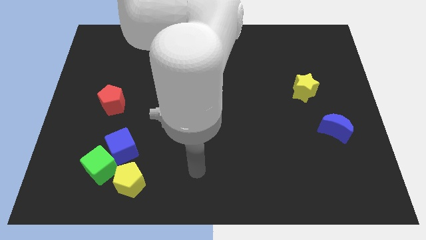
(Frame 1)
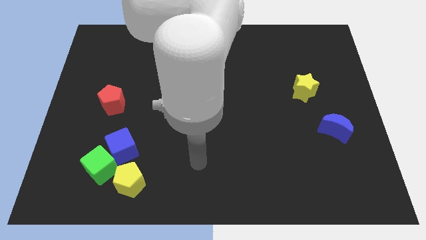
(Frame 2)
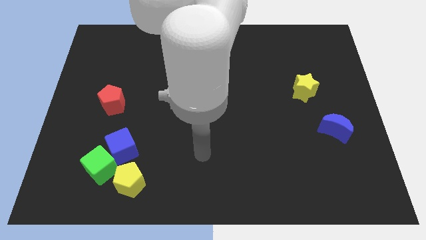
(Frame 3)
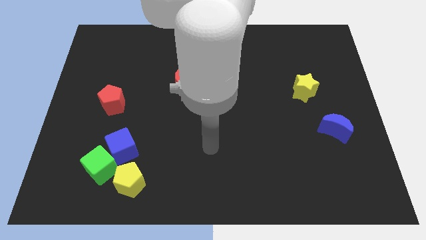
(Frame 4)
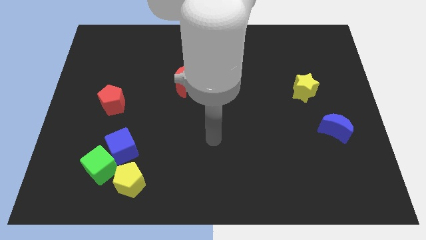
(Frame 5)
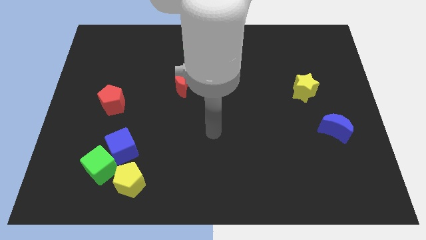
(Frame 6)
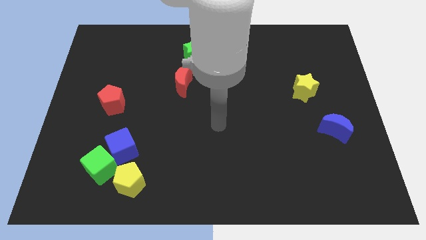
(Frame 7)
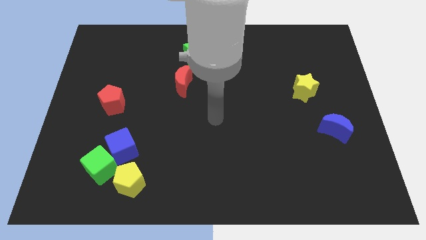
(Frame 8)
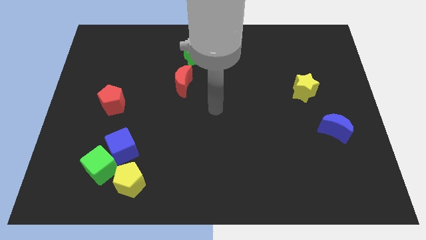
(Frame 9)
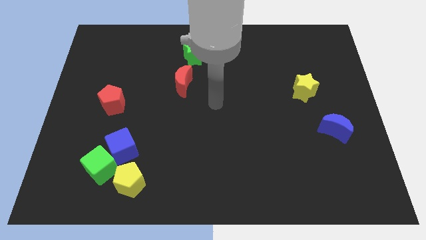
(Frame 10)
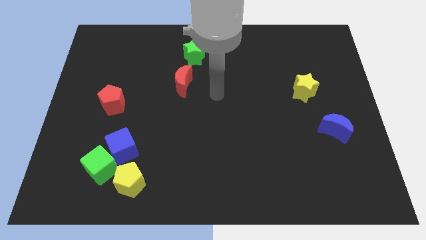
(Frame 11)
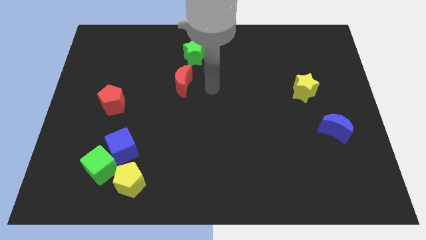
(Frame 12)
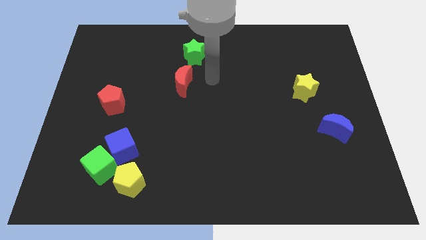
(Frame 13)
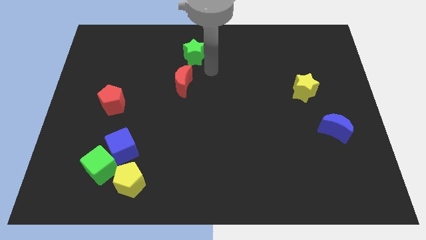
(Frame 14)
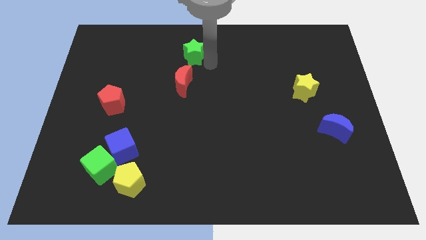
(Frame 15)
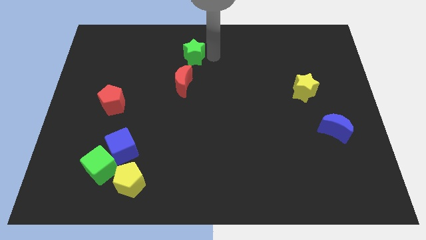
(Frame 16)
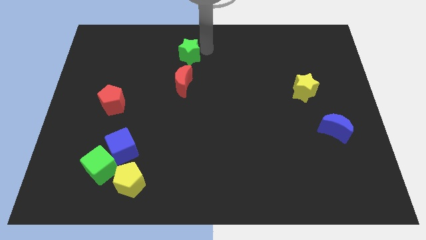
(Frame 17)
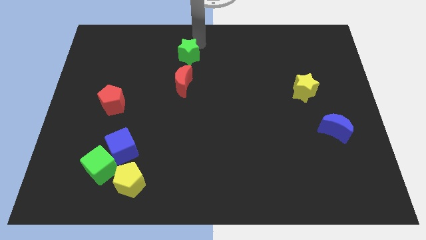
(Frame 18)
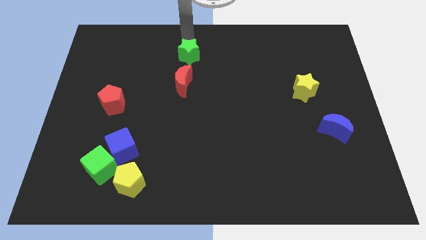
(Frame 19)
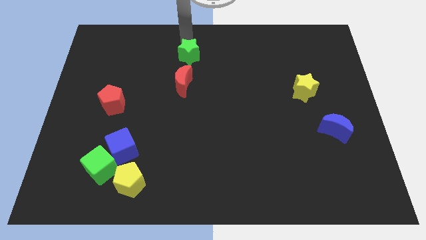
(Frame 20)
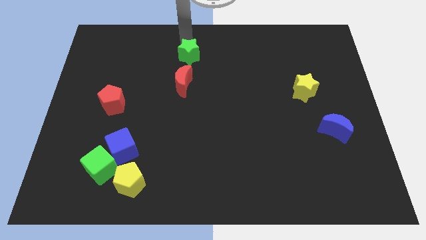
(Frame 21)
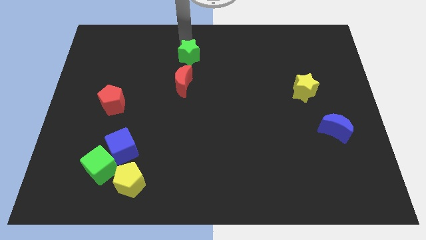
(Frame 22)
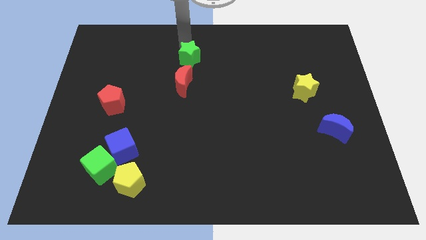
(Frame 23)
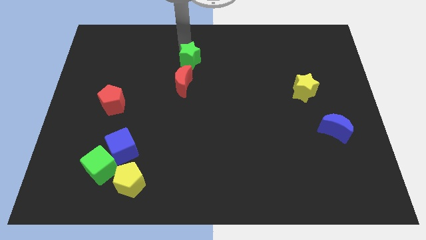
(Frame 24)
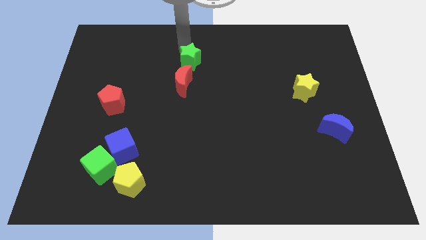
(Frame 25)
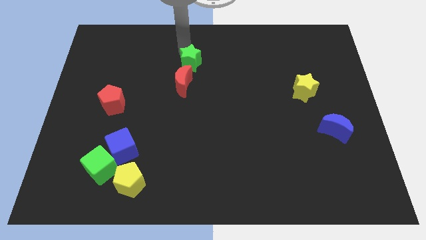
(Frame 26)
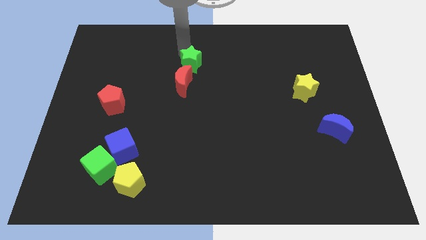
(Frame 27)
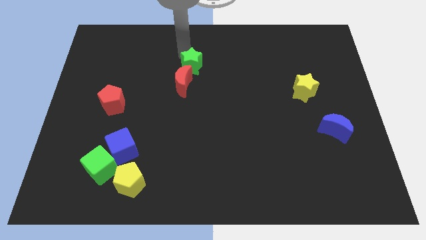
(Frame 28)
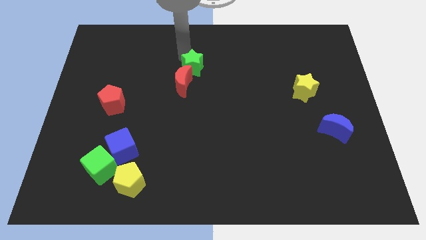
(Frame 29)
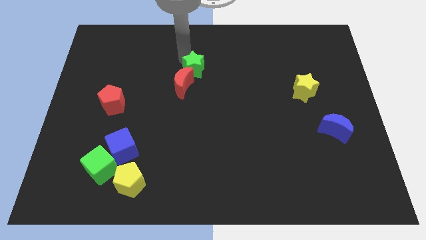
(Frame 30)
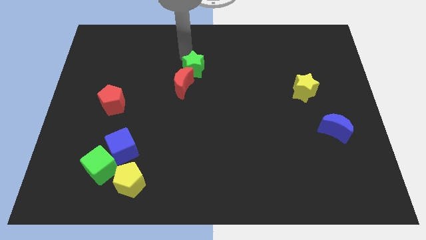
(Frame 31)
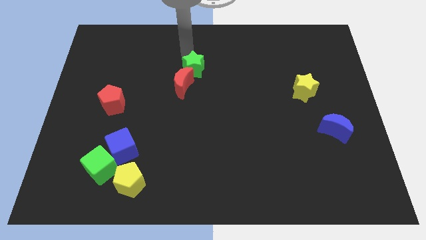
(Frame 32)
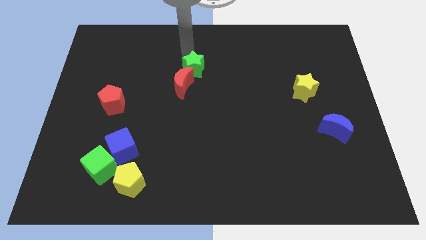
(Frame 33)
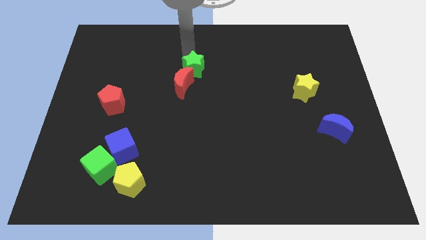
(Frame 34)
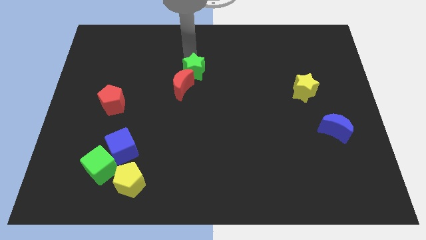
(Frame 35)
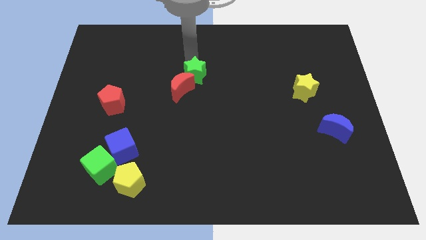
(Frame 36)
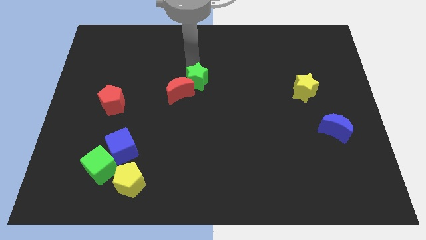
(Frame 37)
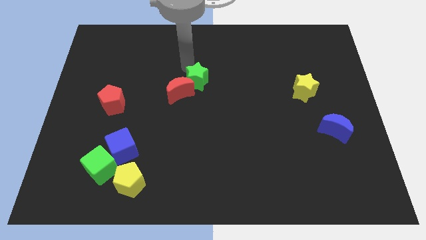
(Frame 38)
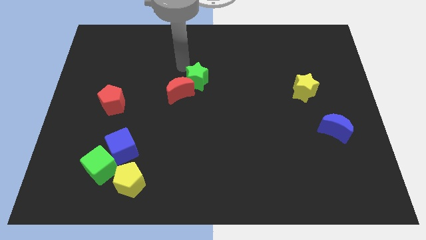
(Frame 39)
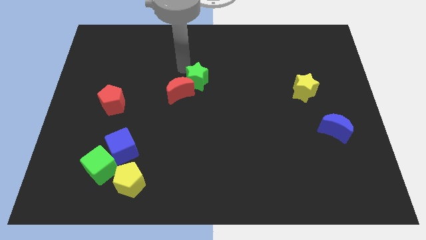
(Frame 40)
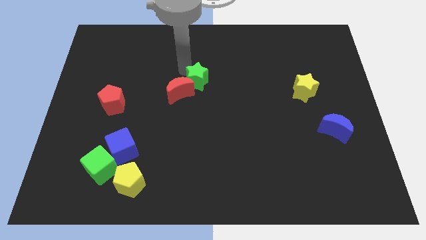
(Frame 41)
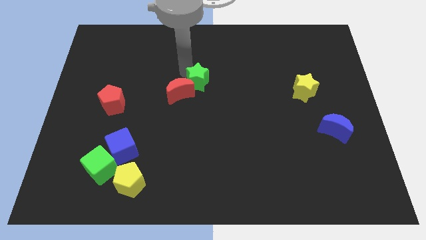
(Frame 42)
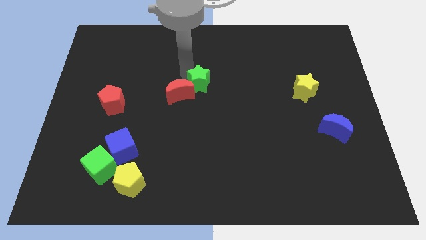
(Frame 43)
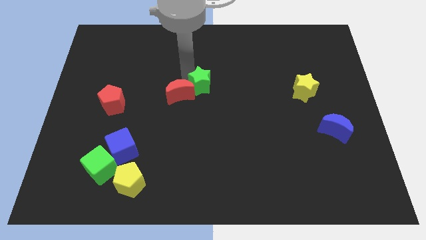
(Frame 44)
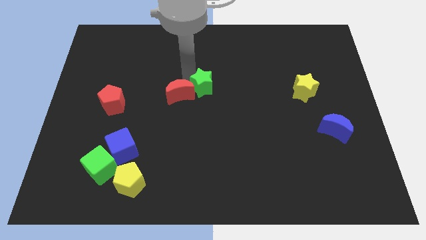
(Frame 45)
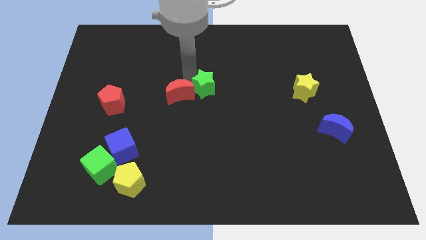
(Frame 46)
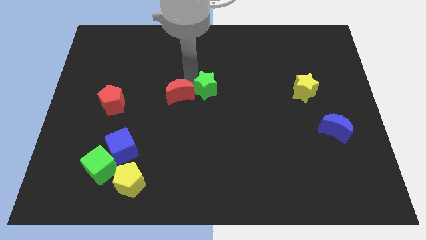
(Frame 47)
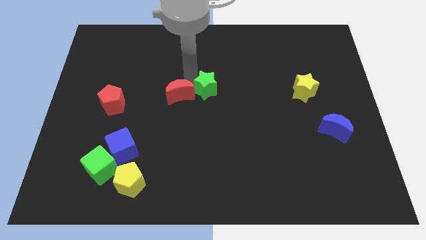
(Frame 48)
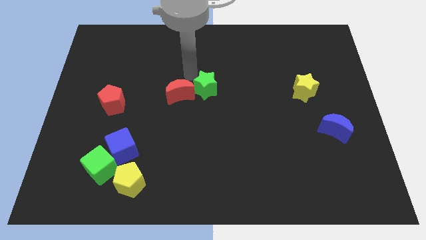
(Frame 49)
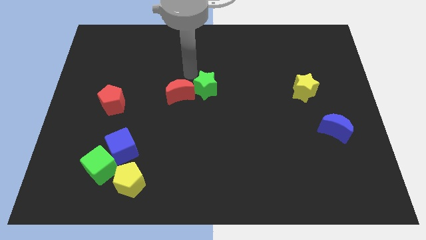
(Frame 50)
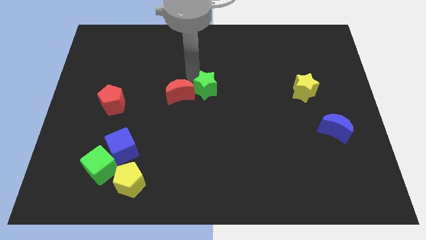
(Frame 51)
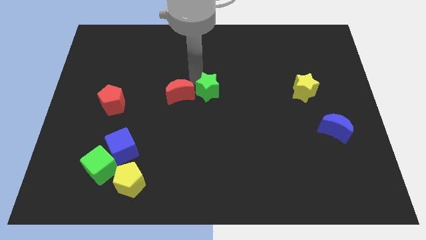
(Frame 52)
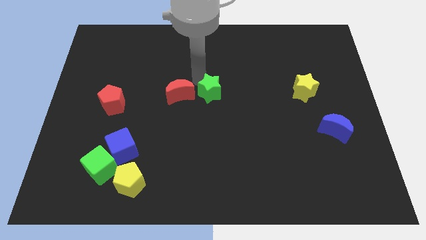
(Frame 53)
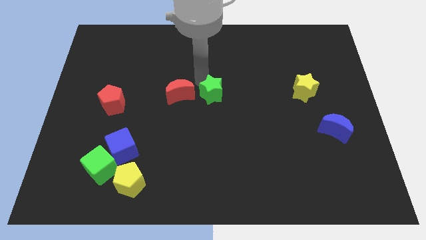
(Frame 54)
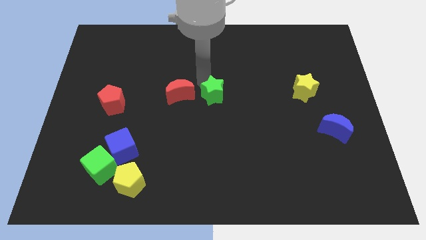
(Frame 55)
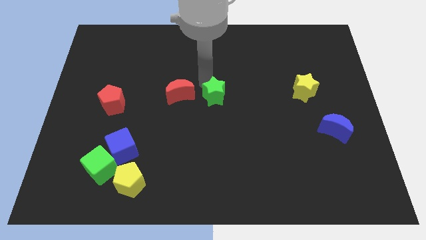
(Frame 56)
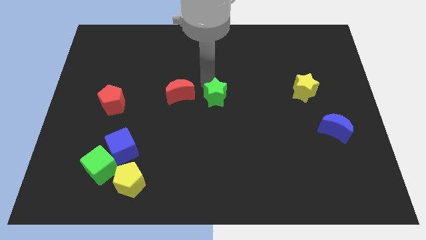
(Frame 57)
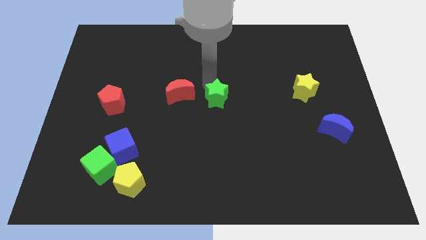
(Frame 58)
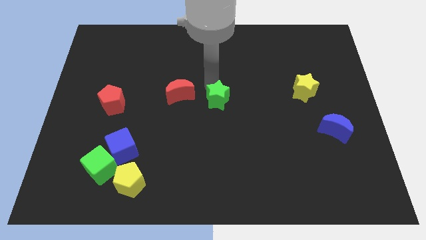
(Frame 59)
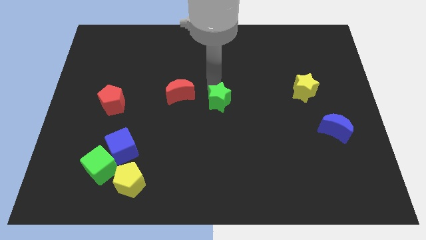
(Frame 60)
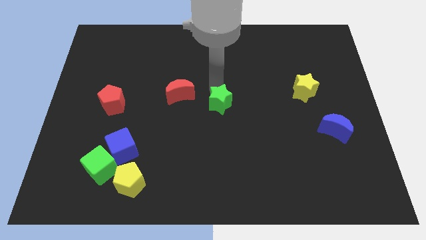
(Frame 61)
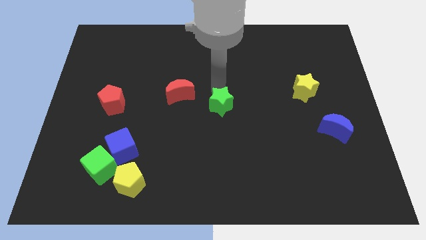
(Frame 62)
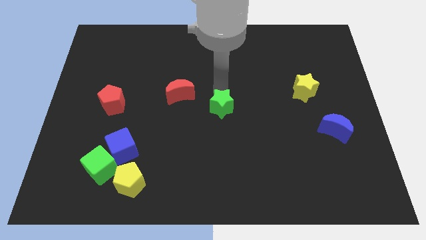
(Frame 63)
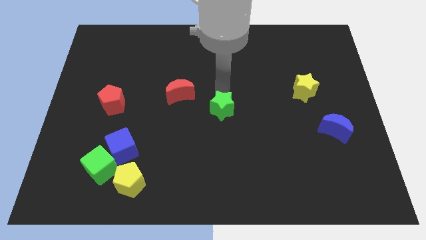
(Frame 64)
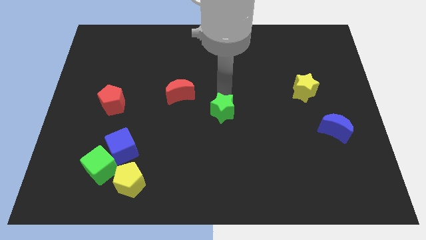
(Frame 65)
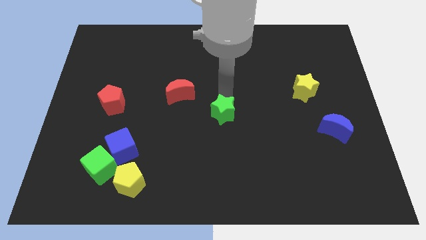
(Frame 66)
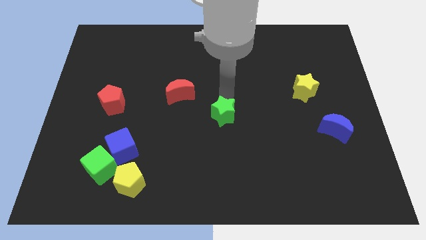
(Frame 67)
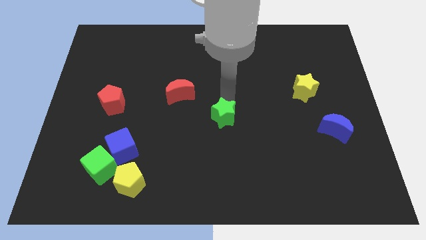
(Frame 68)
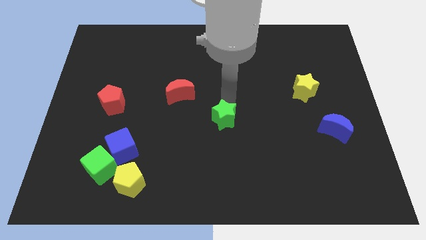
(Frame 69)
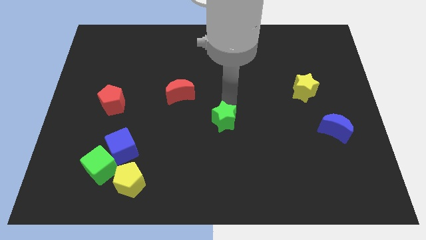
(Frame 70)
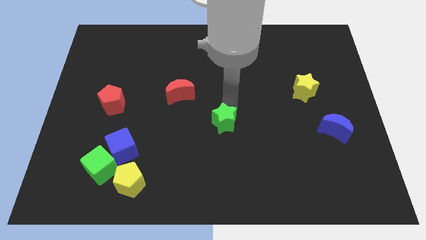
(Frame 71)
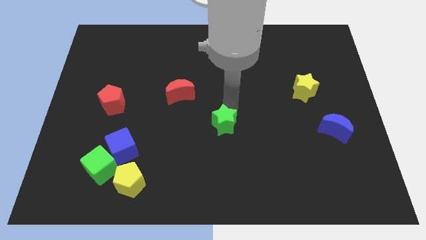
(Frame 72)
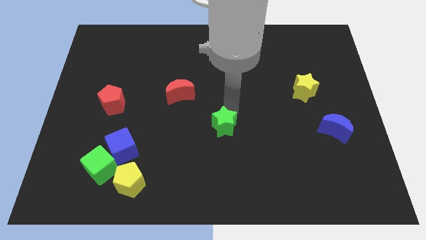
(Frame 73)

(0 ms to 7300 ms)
move the green star downwards

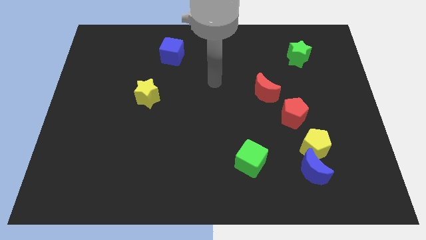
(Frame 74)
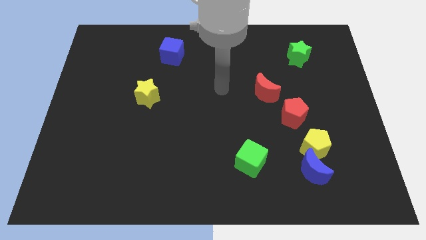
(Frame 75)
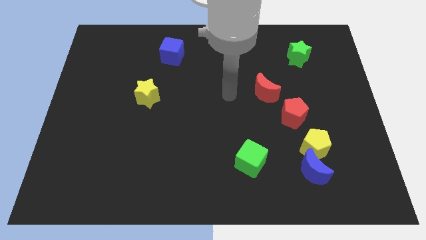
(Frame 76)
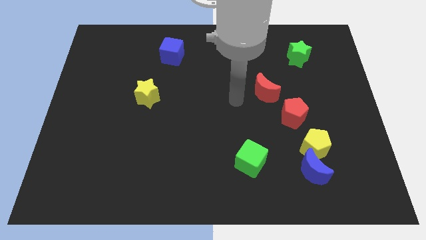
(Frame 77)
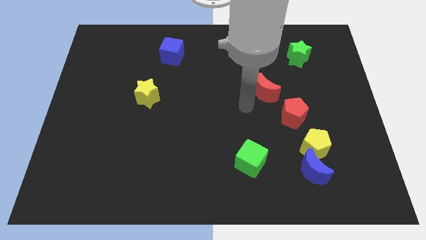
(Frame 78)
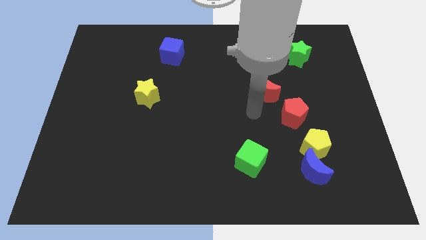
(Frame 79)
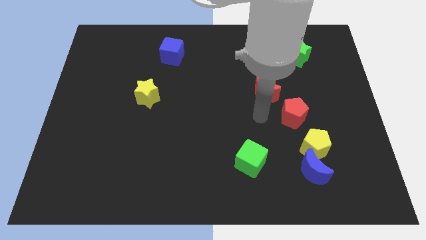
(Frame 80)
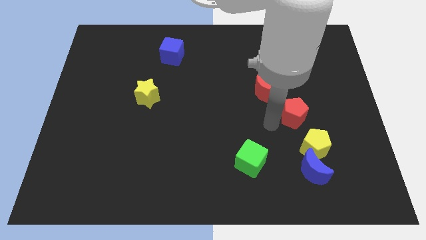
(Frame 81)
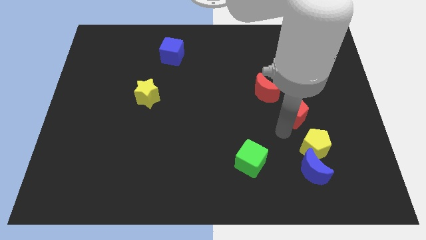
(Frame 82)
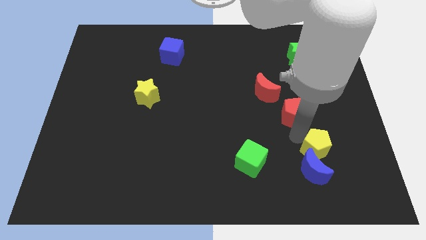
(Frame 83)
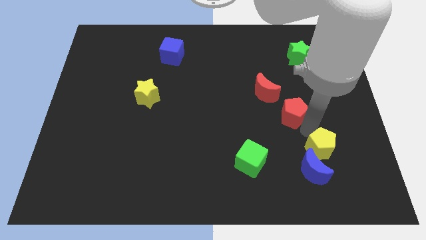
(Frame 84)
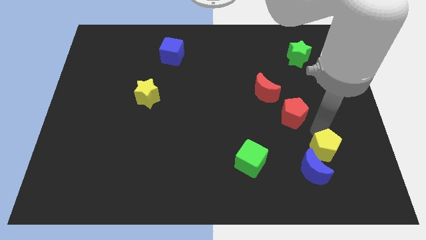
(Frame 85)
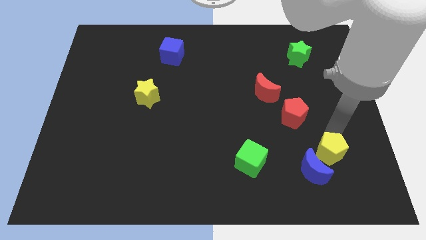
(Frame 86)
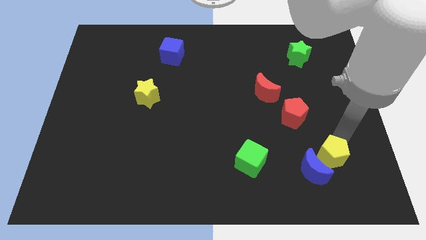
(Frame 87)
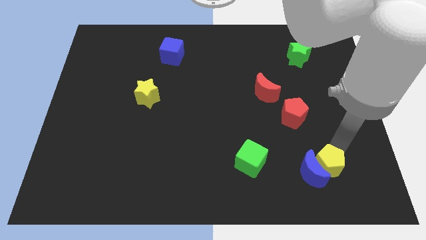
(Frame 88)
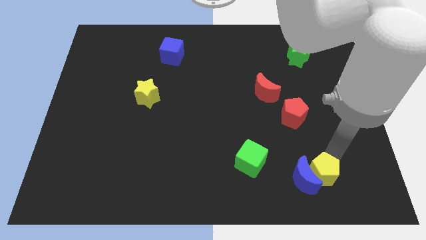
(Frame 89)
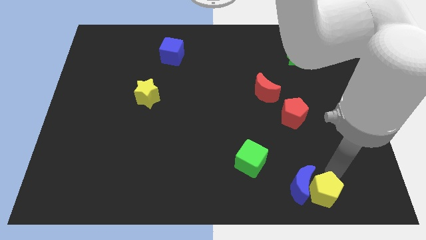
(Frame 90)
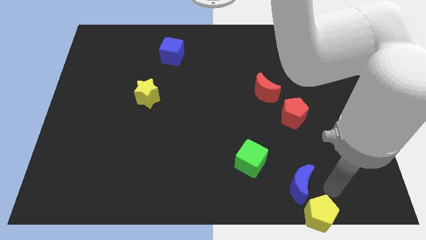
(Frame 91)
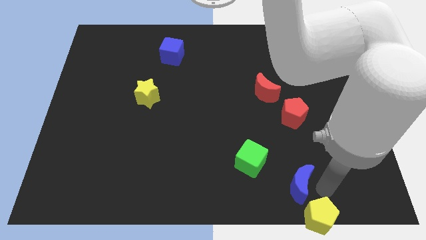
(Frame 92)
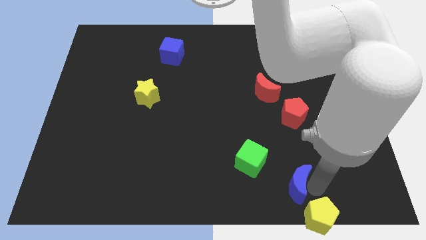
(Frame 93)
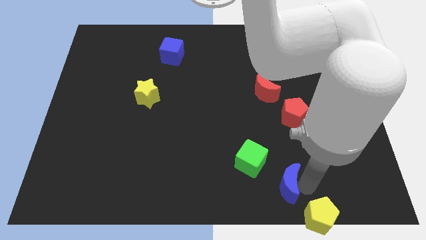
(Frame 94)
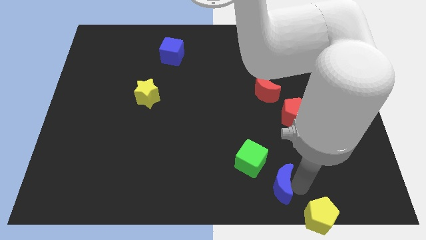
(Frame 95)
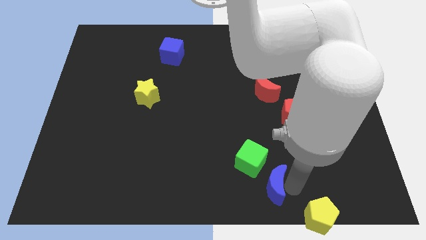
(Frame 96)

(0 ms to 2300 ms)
move the blue moon slightly to the left
